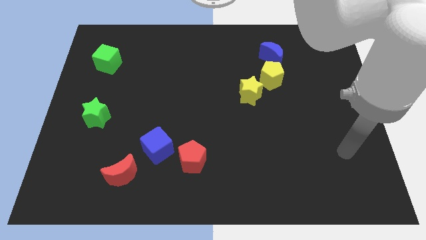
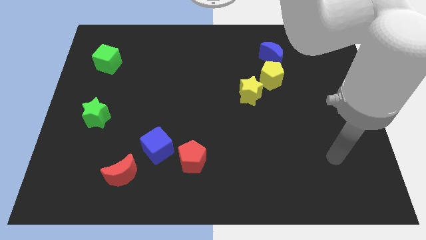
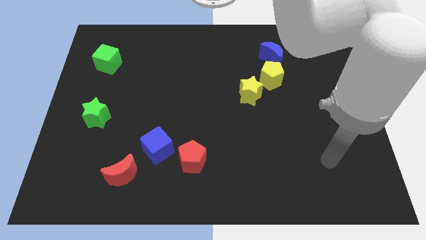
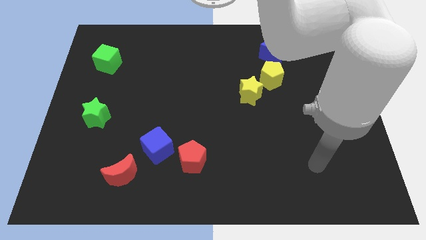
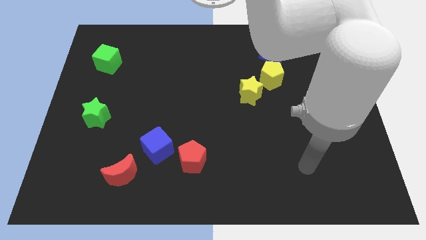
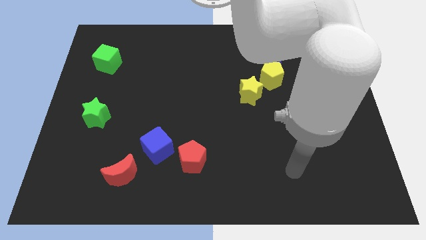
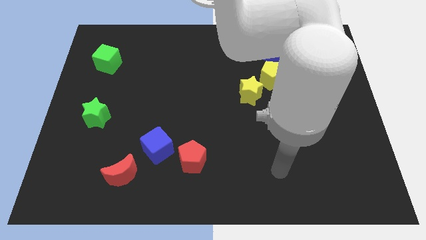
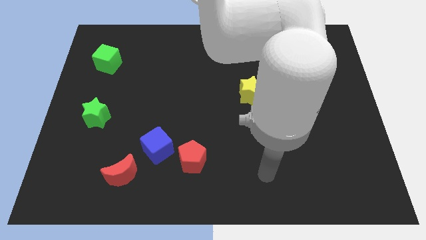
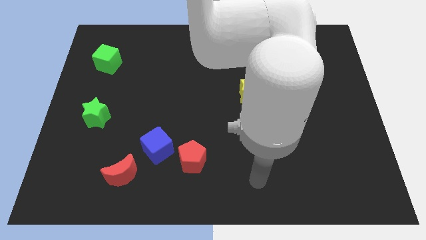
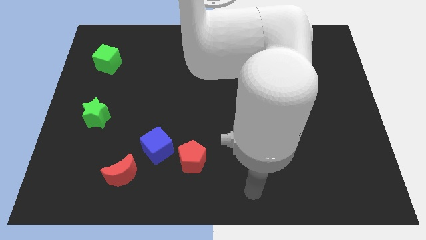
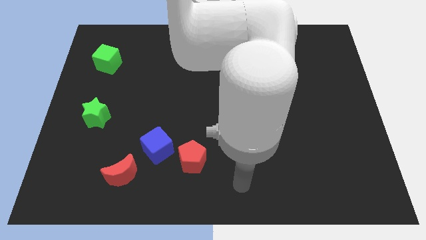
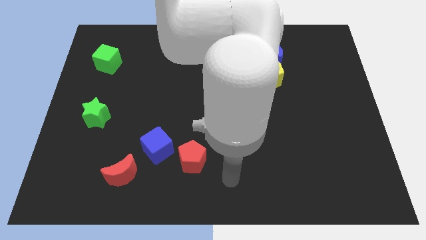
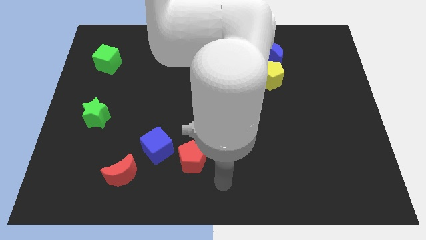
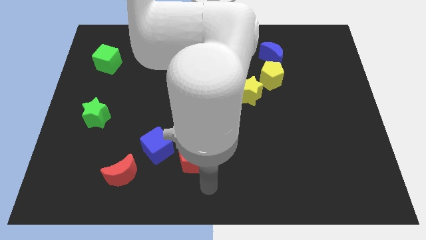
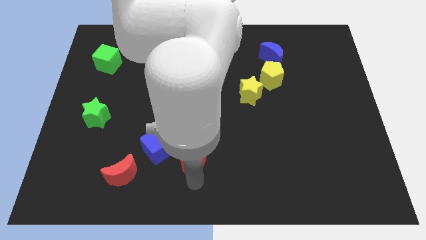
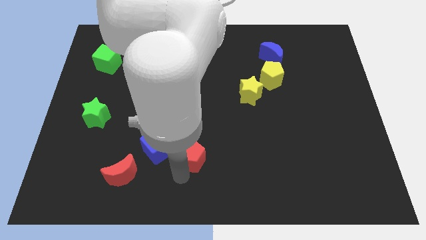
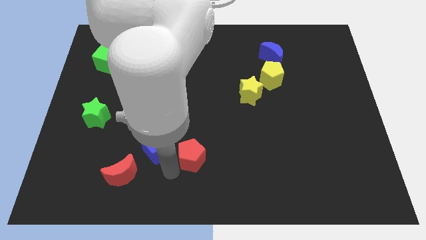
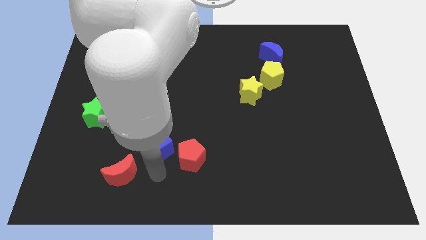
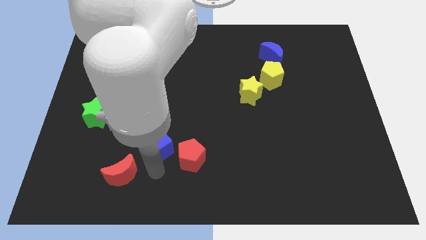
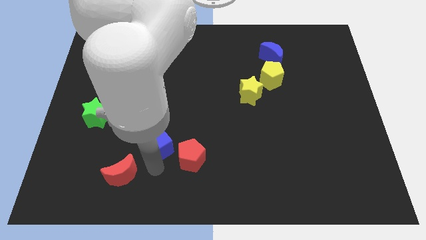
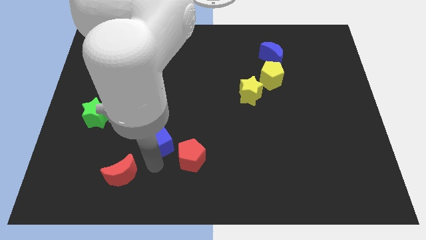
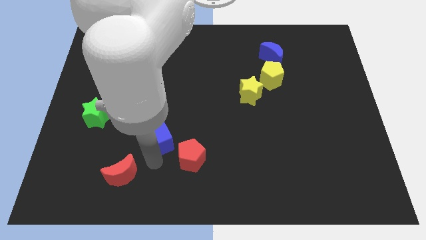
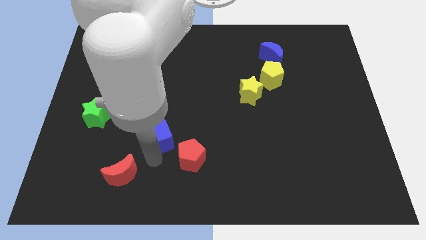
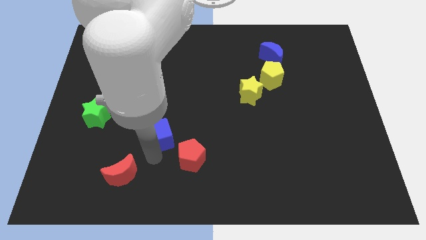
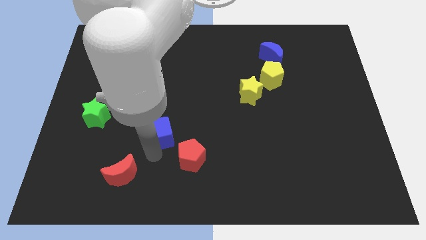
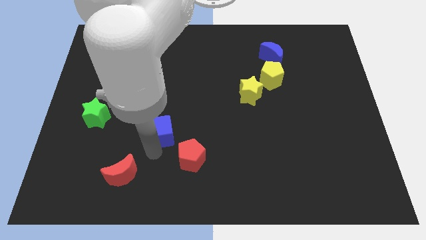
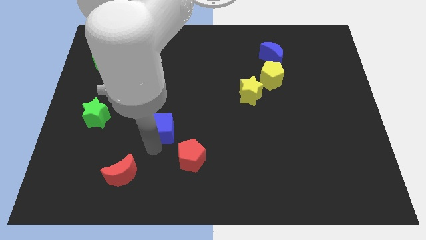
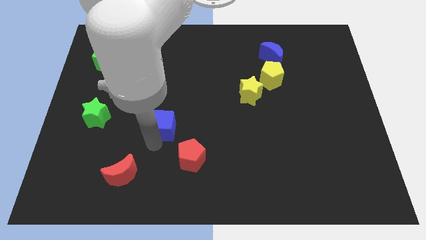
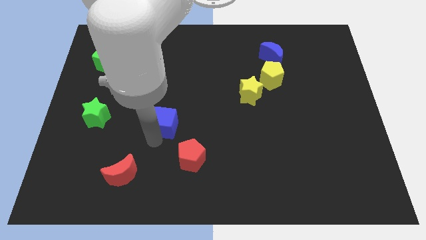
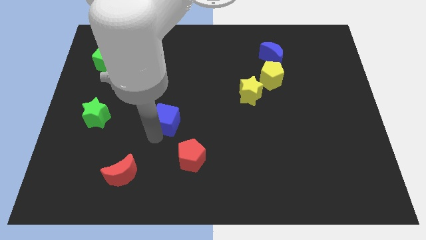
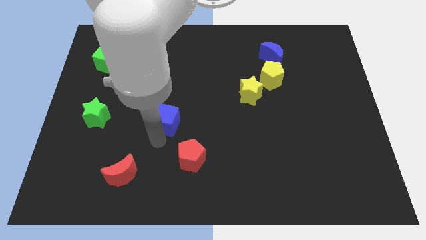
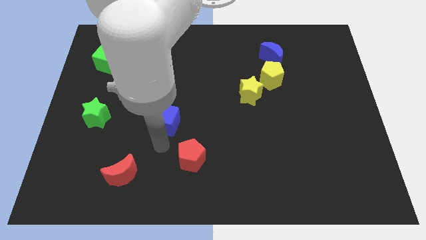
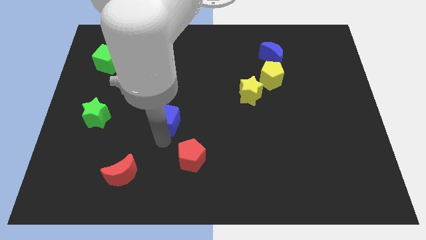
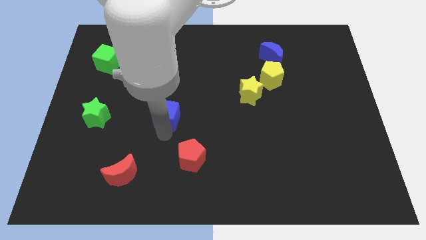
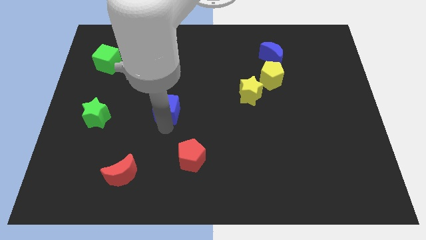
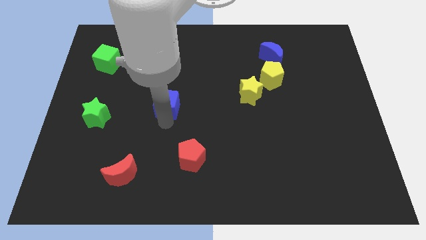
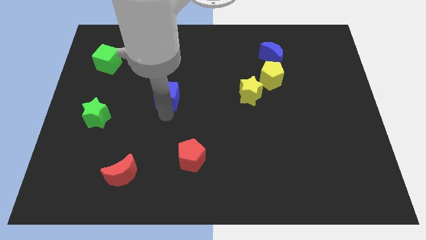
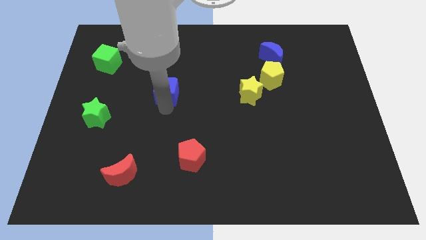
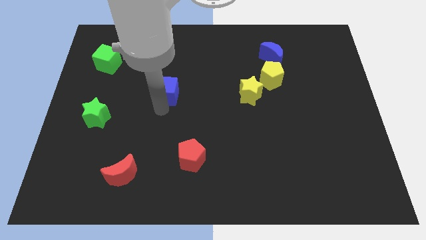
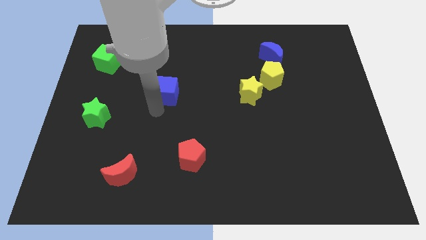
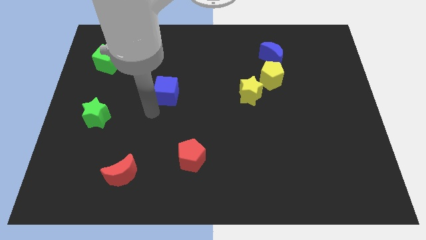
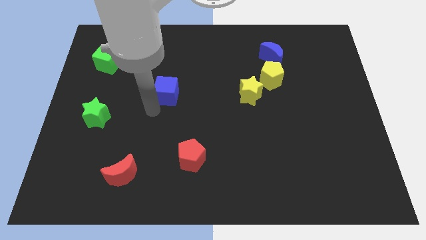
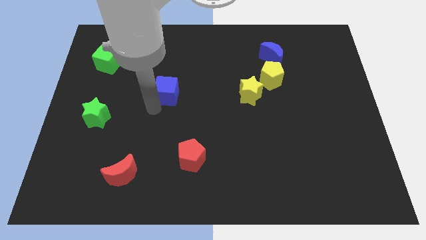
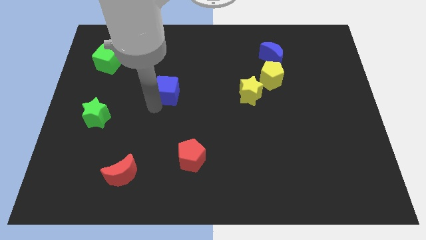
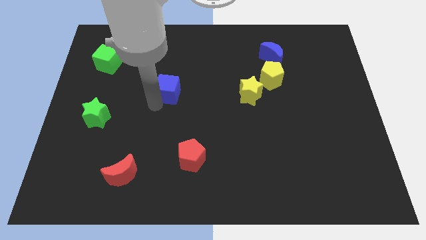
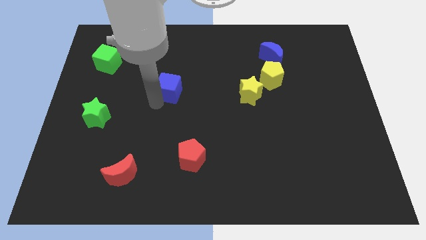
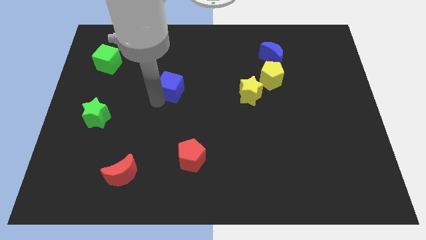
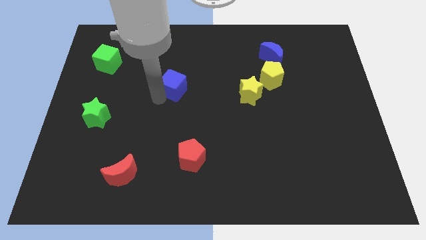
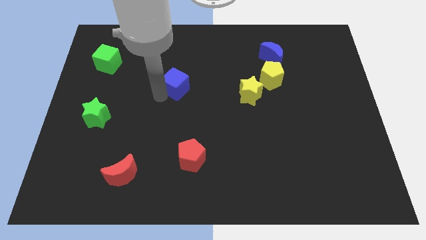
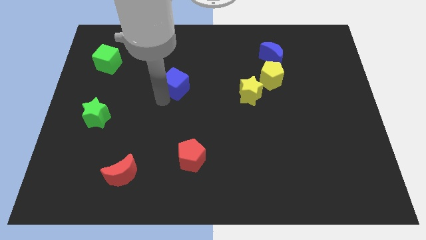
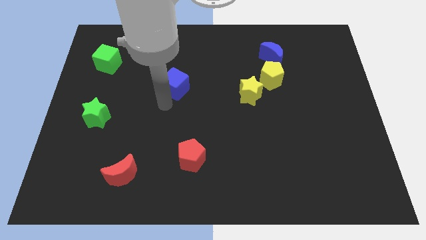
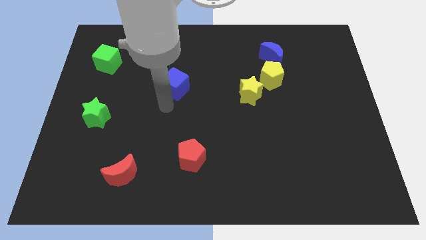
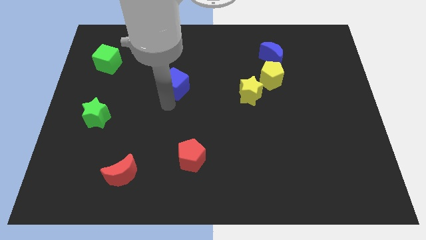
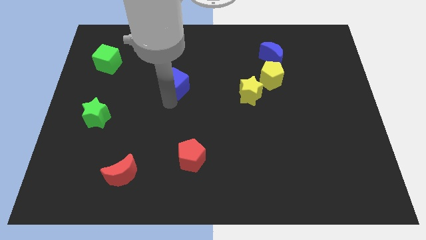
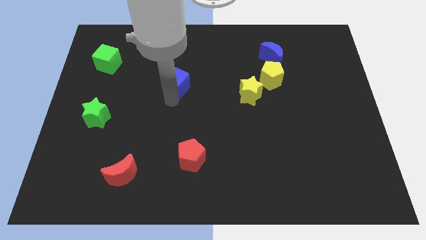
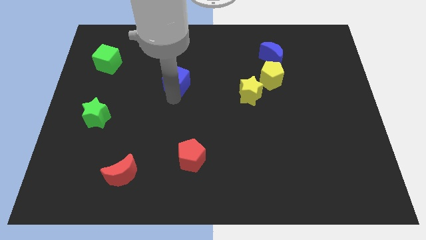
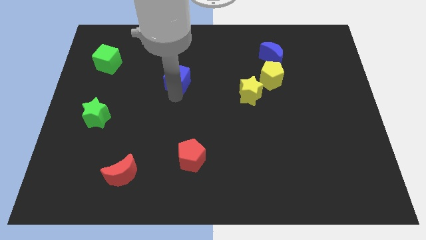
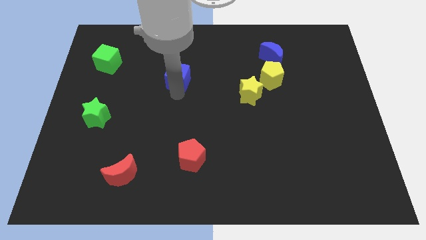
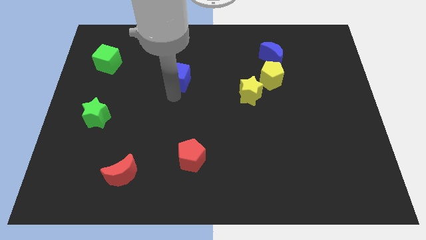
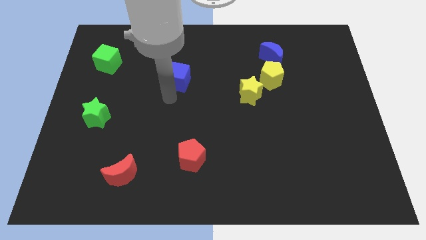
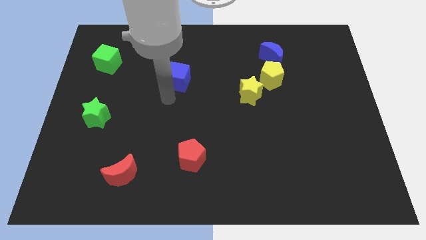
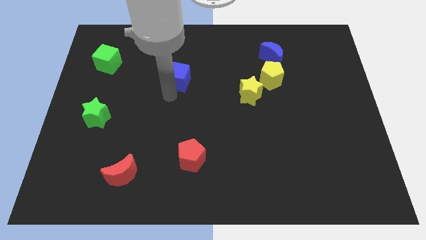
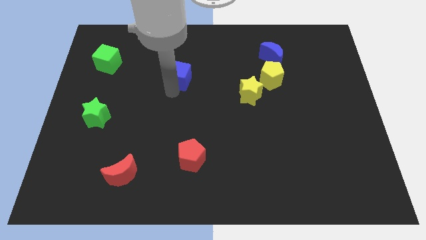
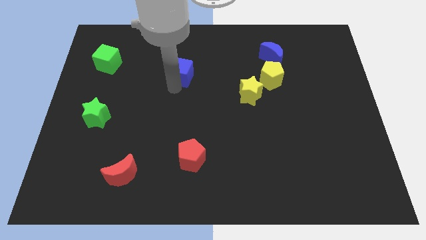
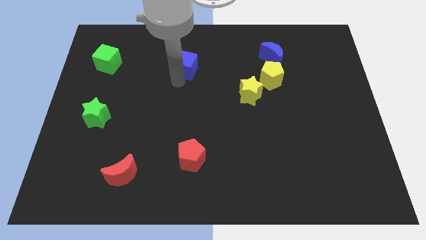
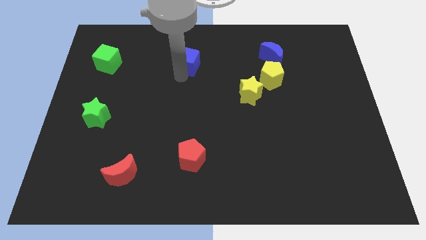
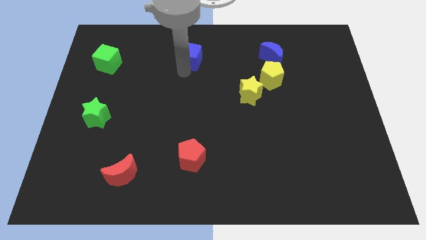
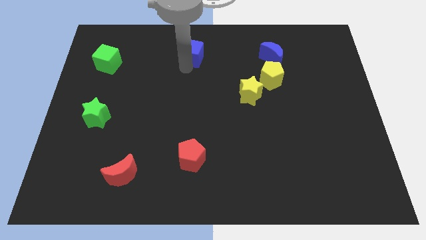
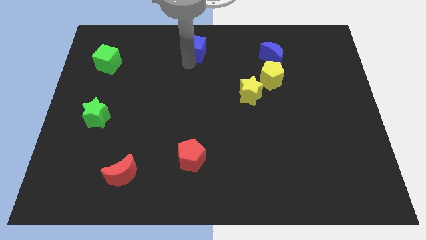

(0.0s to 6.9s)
move the blue cube to the top side

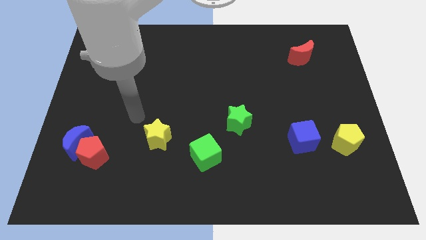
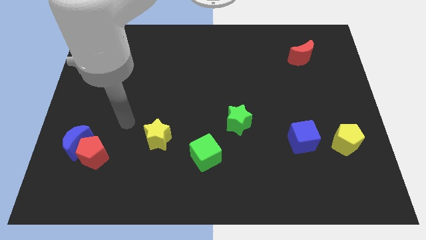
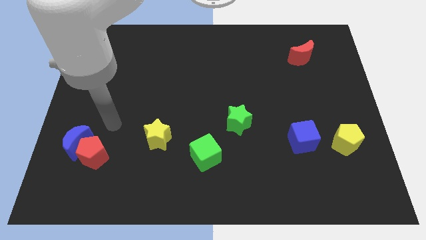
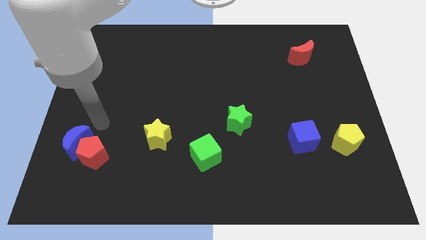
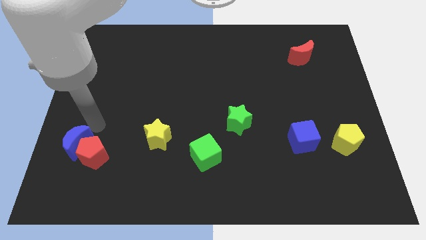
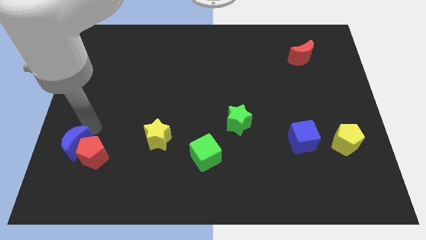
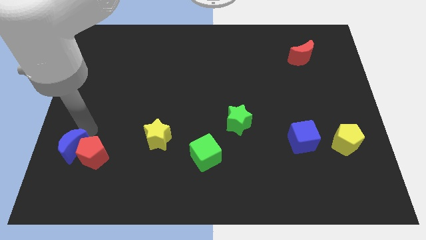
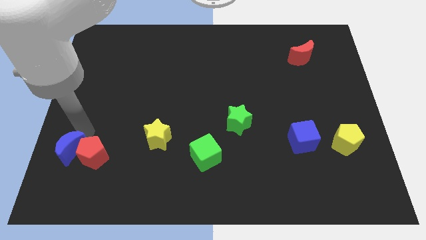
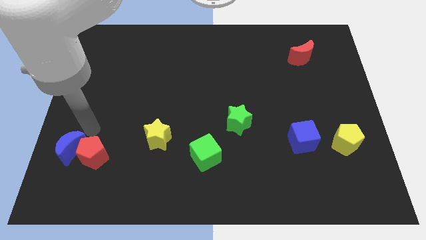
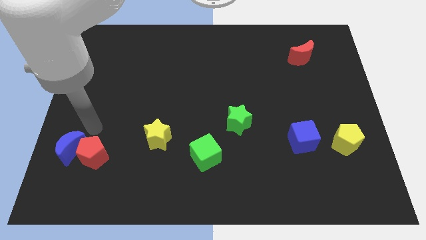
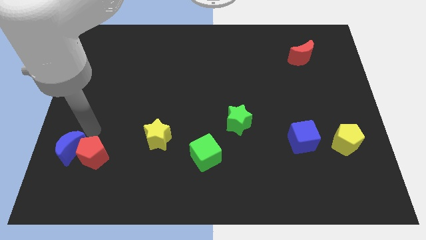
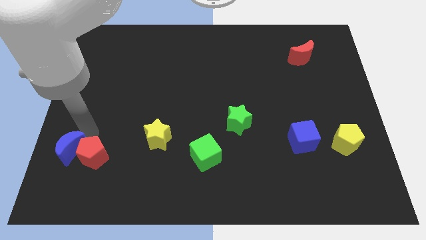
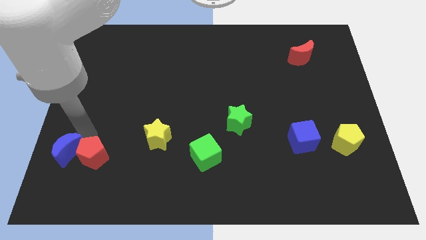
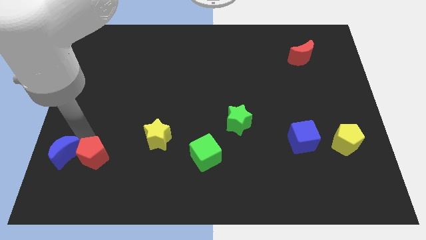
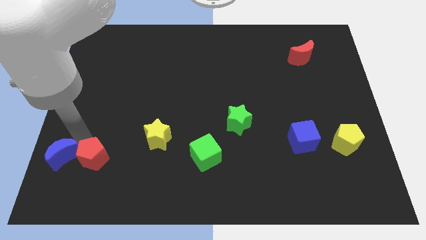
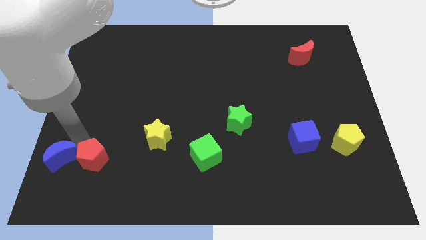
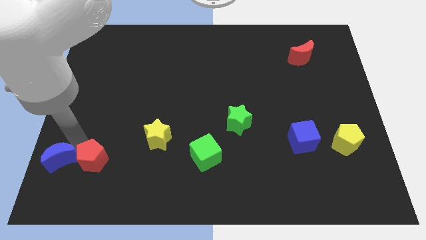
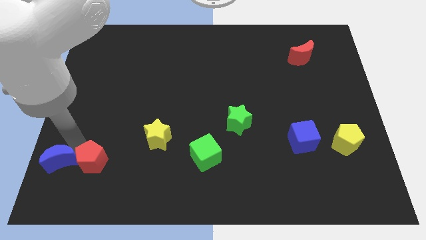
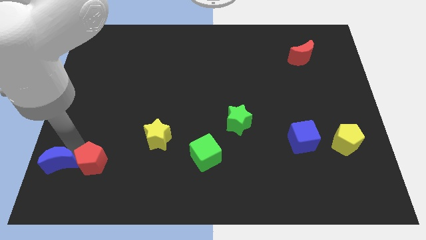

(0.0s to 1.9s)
move the blue moon to the bottom left
